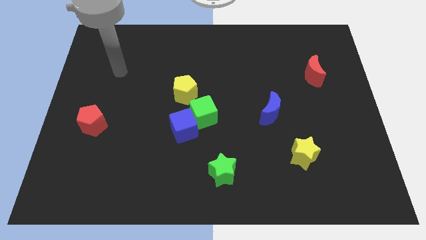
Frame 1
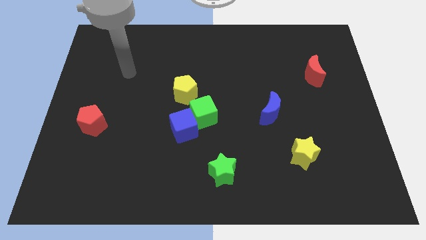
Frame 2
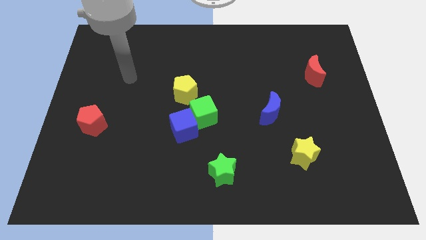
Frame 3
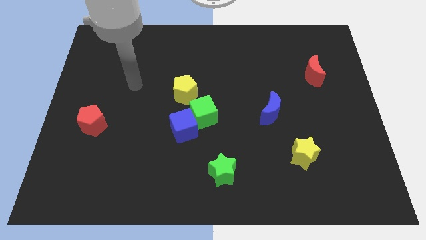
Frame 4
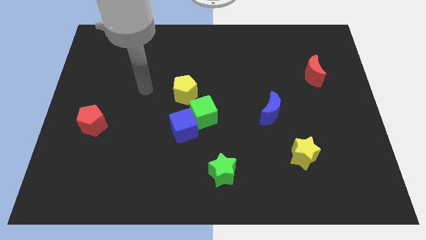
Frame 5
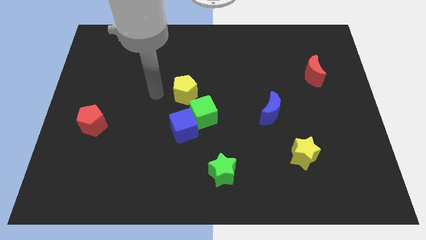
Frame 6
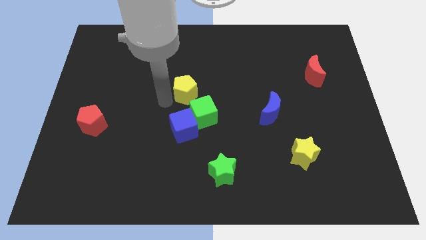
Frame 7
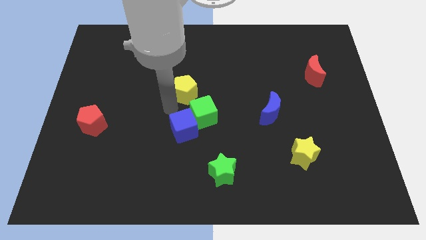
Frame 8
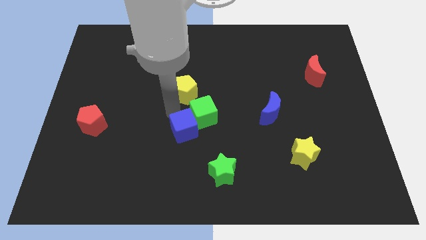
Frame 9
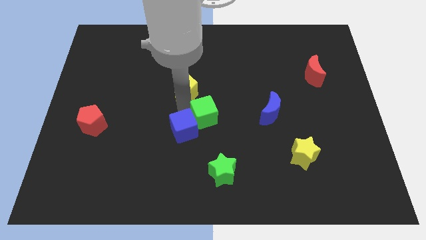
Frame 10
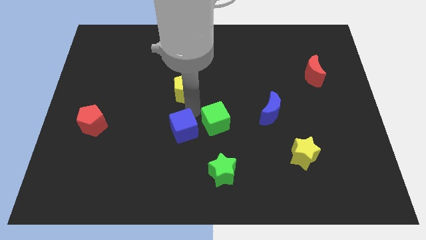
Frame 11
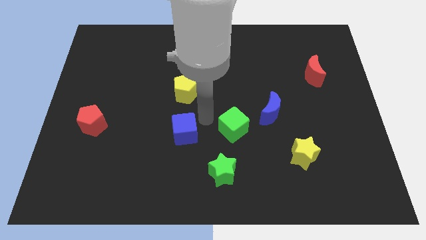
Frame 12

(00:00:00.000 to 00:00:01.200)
pull the blue cube apart from the green cube

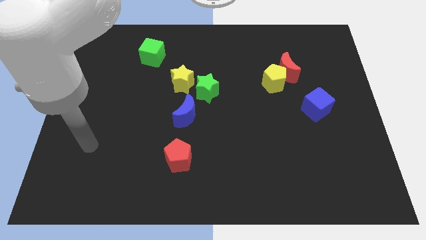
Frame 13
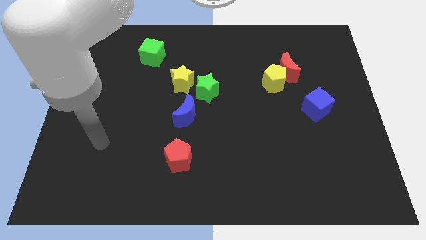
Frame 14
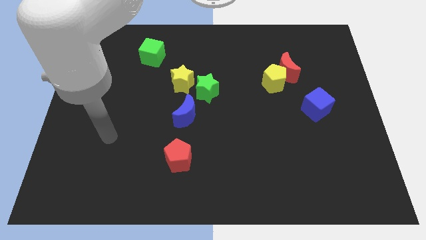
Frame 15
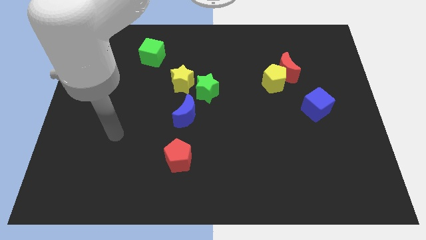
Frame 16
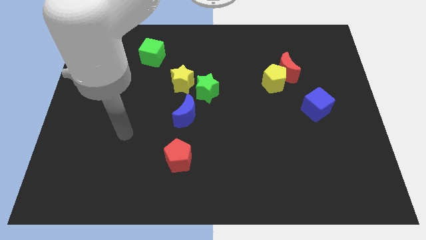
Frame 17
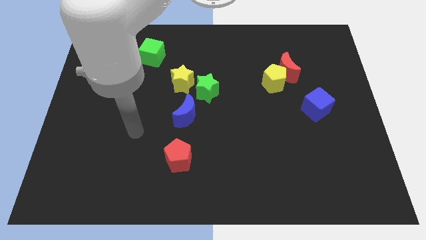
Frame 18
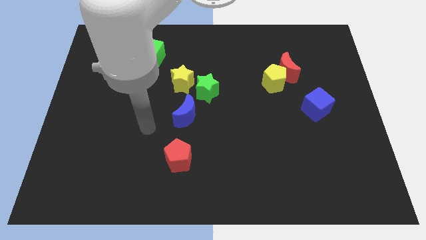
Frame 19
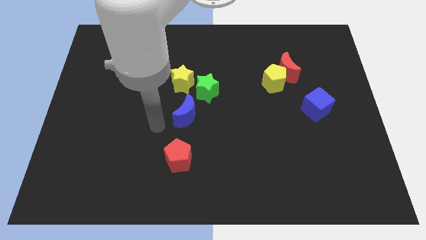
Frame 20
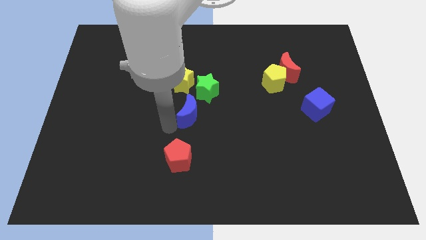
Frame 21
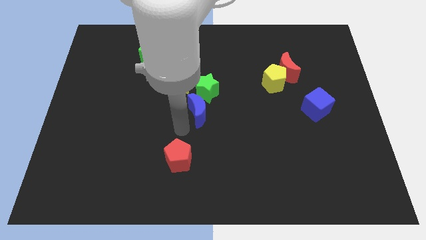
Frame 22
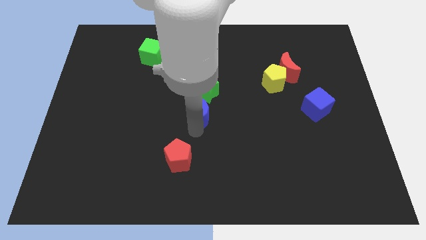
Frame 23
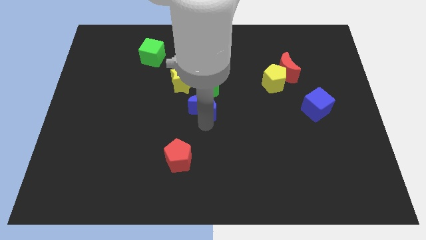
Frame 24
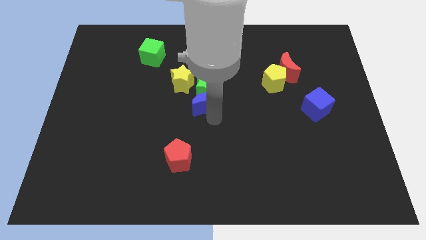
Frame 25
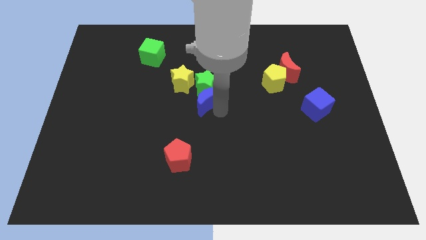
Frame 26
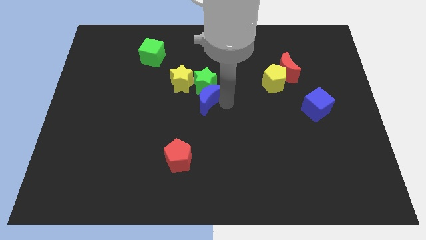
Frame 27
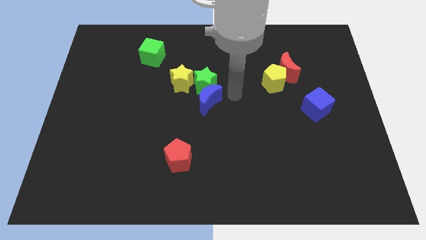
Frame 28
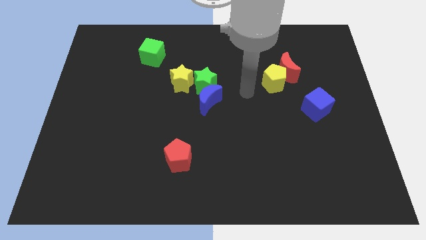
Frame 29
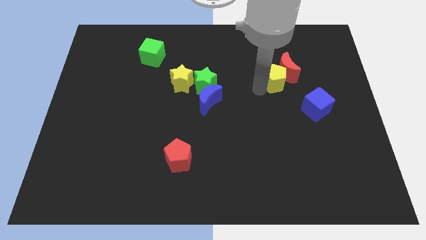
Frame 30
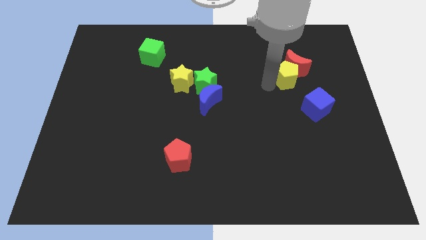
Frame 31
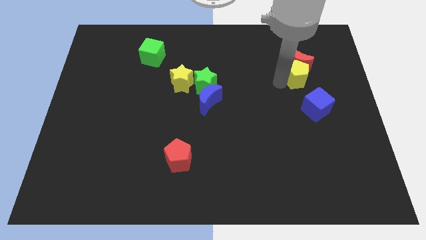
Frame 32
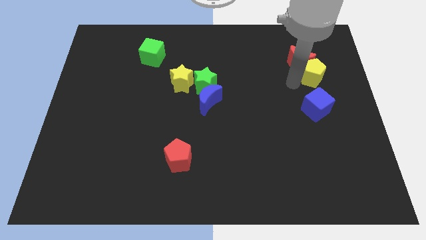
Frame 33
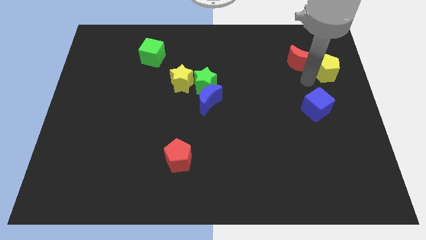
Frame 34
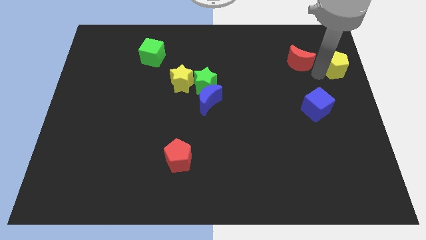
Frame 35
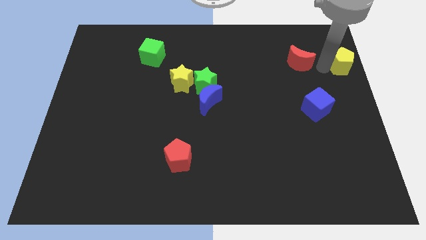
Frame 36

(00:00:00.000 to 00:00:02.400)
pull the red moon apart from the yellow pentagon

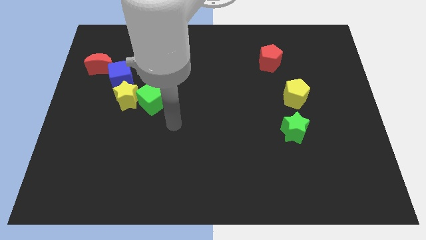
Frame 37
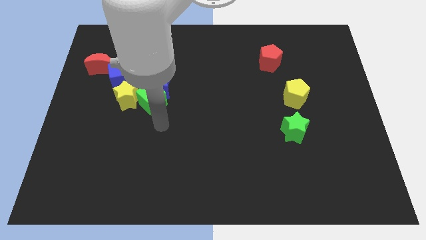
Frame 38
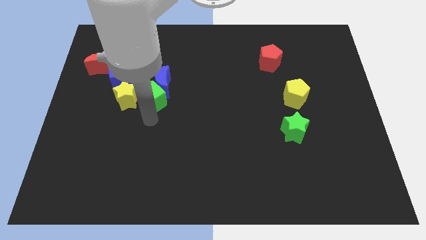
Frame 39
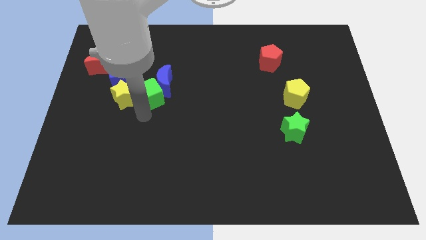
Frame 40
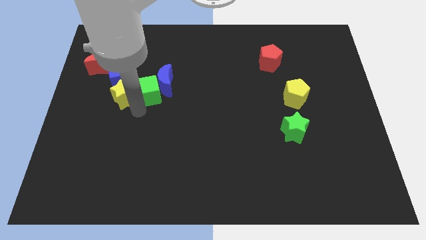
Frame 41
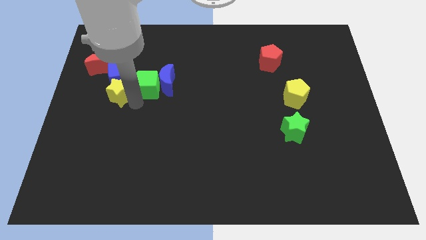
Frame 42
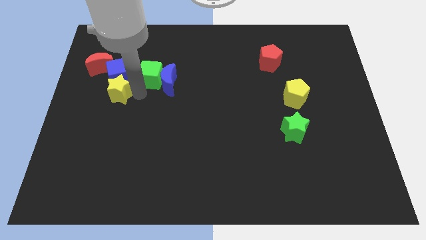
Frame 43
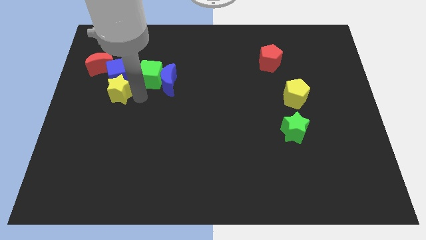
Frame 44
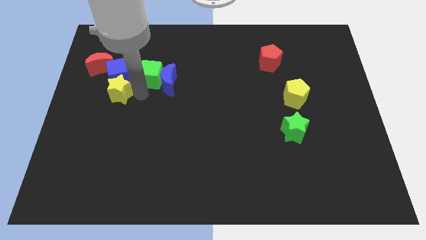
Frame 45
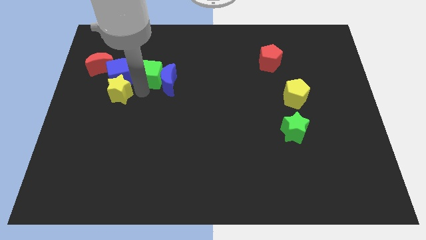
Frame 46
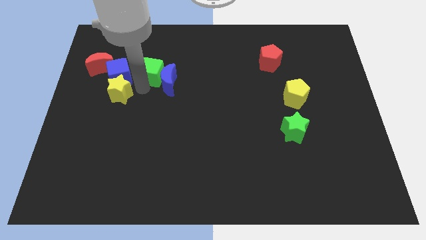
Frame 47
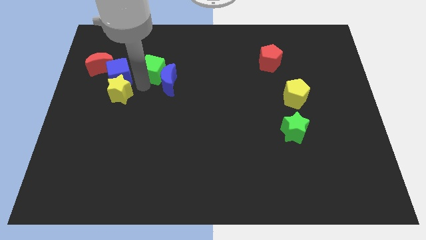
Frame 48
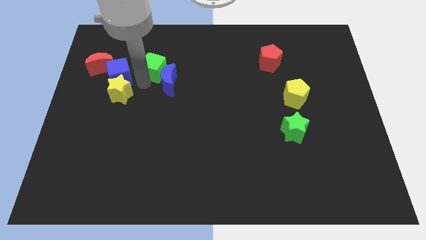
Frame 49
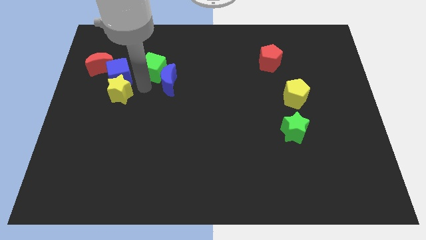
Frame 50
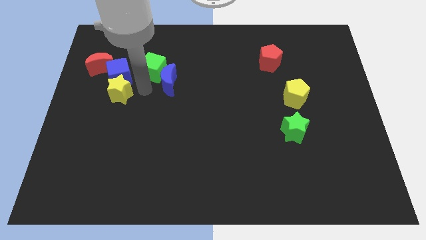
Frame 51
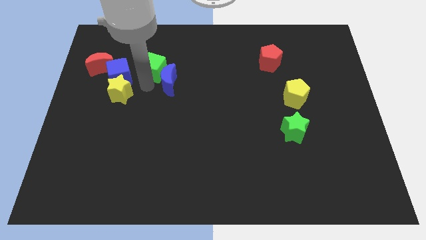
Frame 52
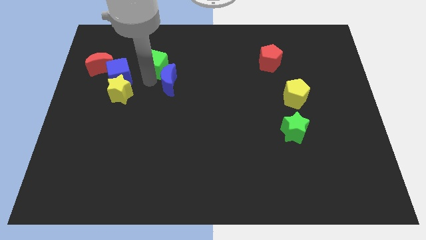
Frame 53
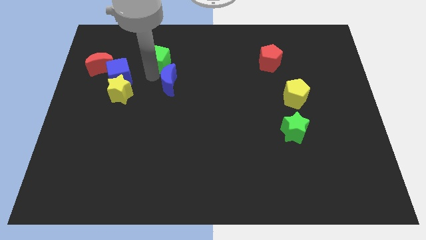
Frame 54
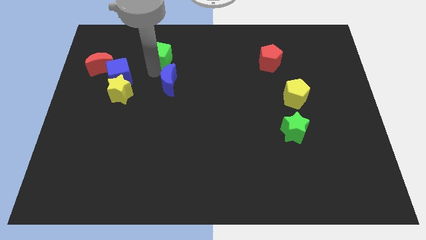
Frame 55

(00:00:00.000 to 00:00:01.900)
pull the green cube apart from the blue moon and yellow star

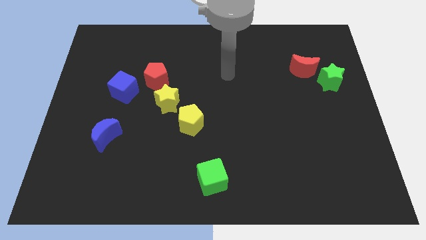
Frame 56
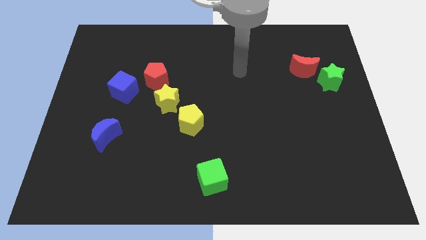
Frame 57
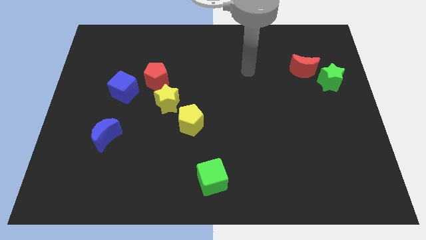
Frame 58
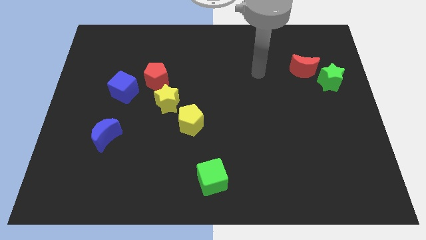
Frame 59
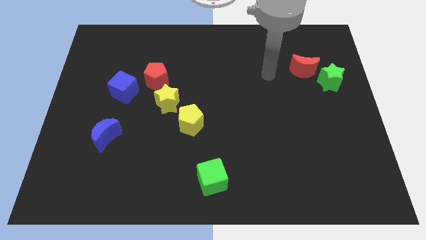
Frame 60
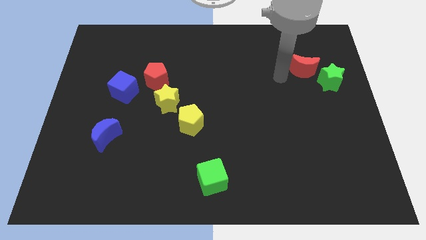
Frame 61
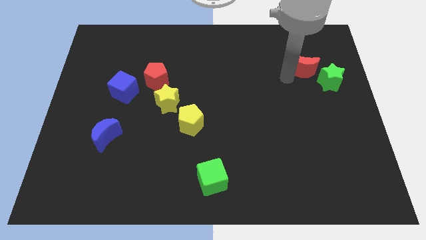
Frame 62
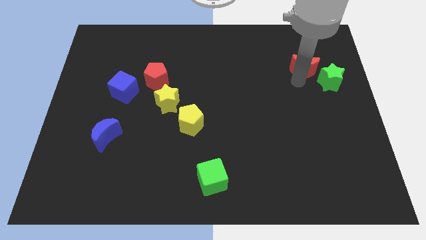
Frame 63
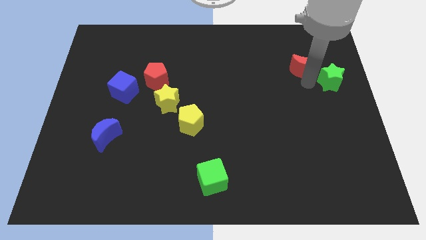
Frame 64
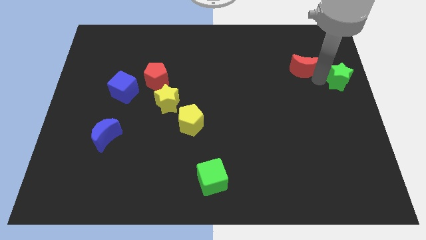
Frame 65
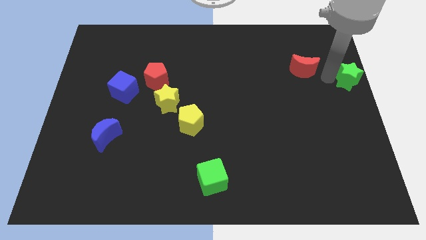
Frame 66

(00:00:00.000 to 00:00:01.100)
move the red moon away from the green star

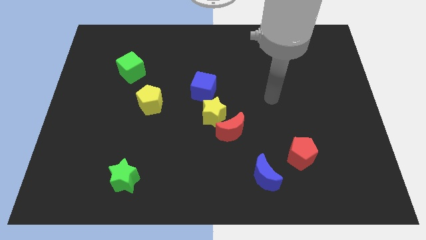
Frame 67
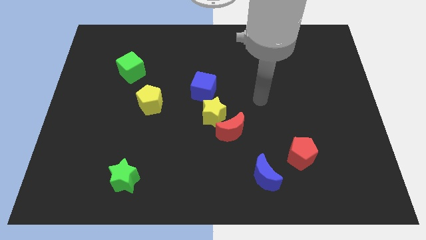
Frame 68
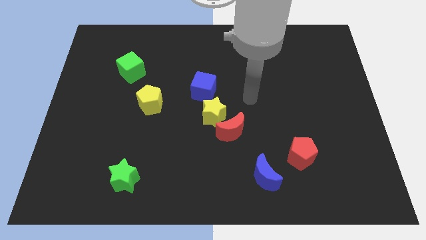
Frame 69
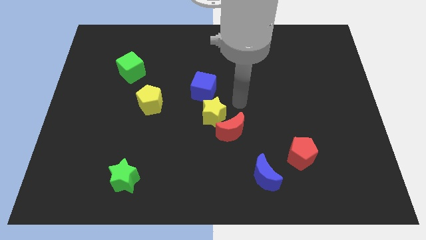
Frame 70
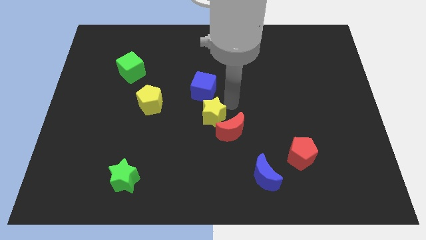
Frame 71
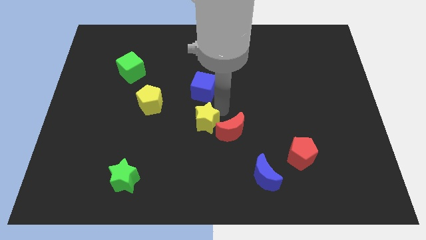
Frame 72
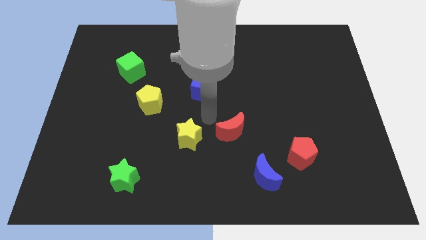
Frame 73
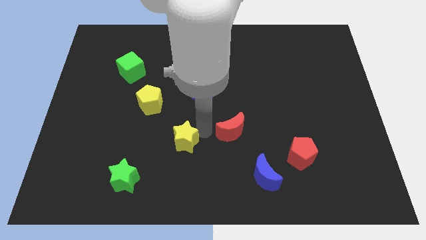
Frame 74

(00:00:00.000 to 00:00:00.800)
separate the red moon from the yellow star

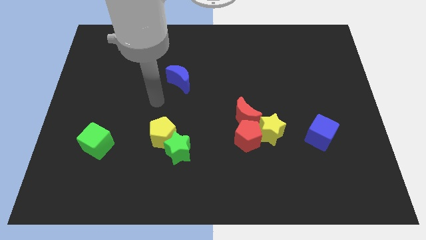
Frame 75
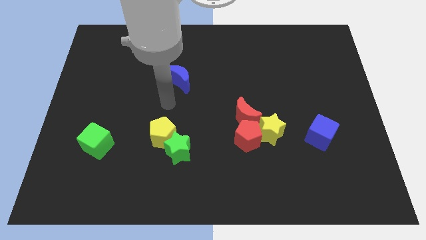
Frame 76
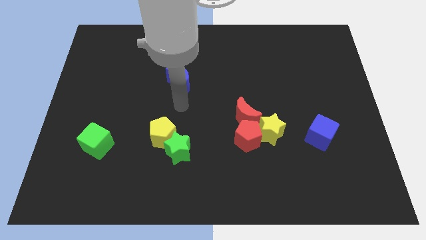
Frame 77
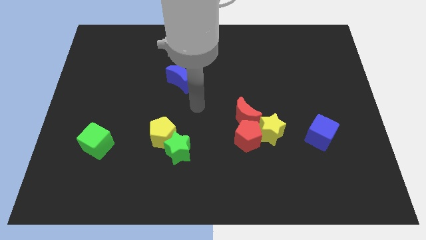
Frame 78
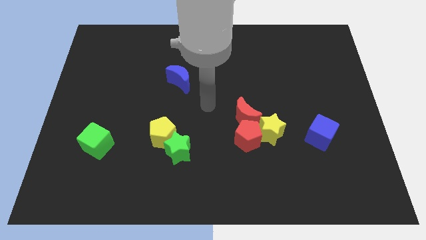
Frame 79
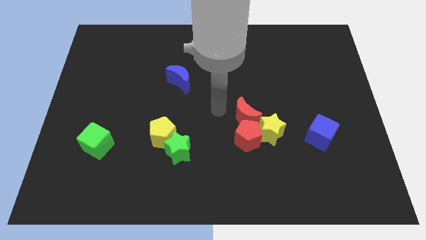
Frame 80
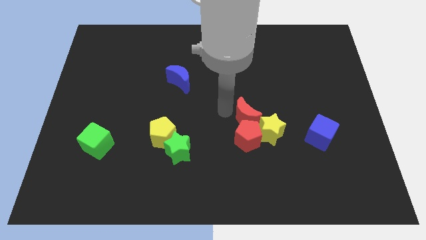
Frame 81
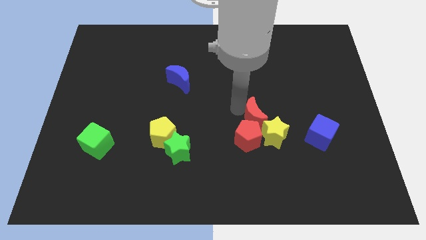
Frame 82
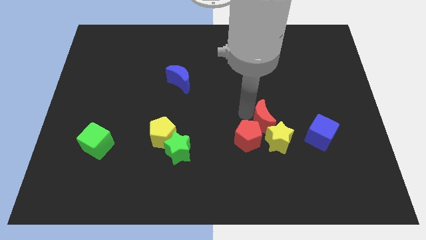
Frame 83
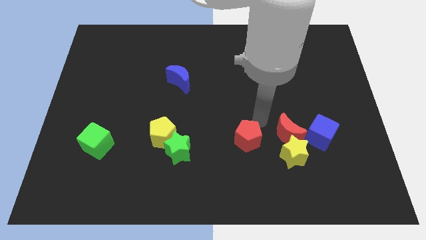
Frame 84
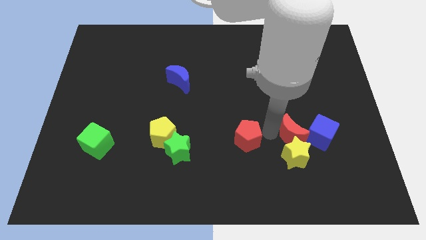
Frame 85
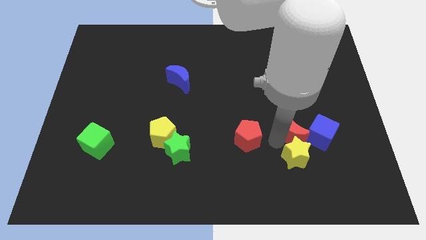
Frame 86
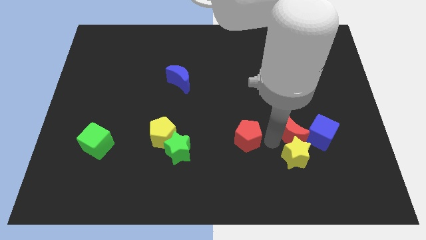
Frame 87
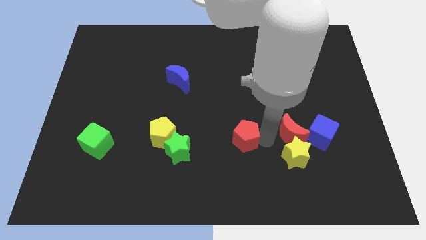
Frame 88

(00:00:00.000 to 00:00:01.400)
move the red pentagon away from the yellow star and red moon

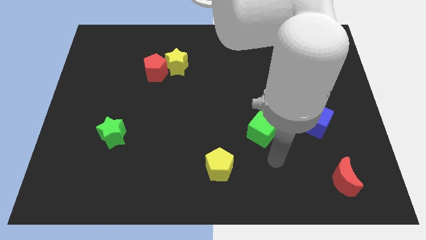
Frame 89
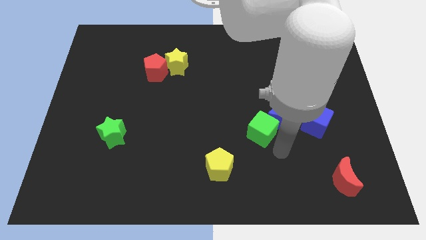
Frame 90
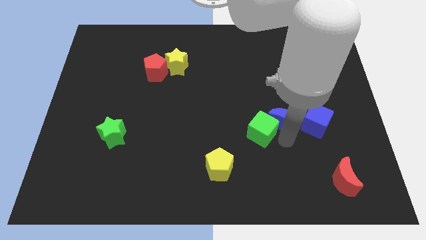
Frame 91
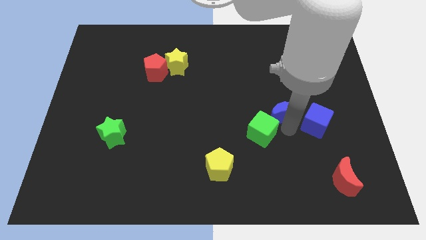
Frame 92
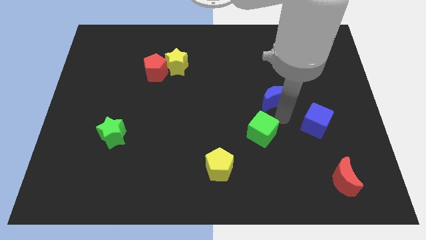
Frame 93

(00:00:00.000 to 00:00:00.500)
move the green cube away from the blue moon

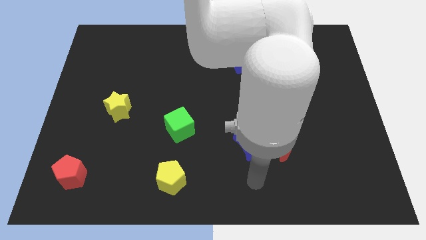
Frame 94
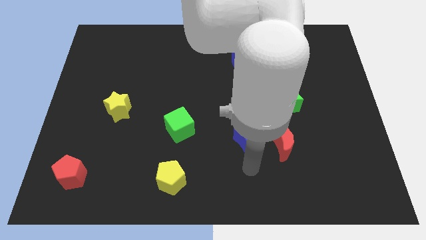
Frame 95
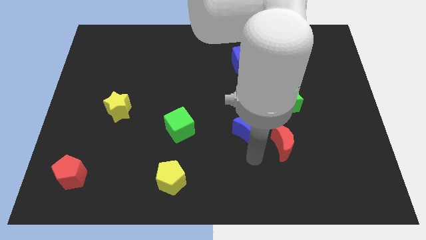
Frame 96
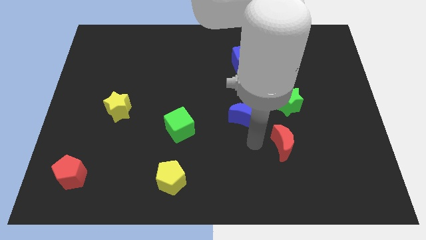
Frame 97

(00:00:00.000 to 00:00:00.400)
pull the red moon apart from the blue moon
